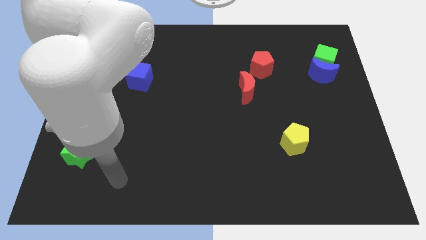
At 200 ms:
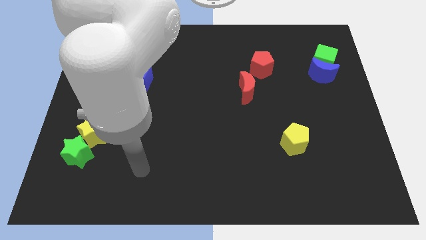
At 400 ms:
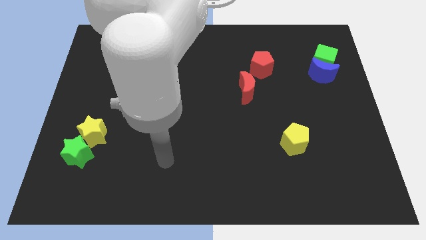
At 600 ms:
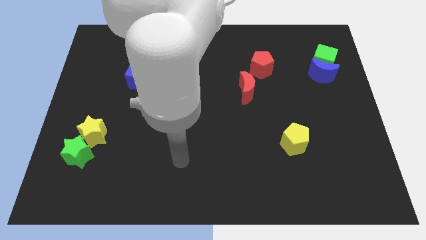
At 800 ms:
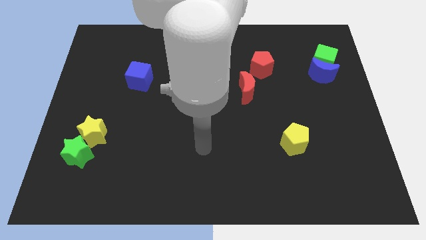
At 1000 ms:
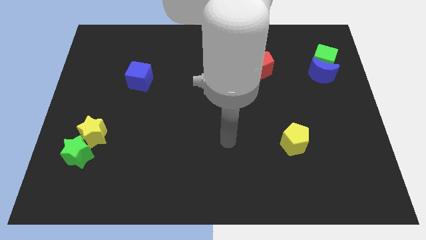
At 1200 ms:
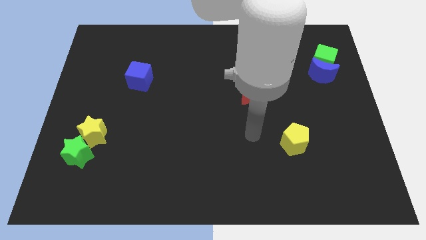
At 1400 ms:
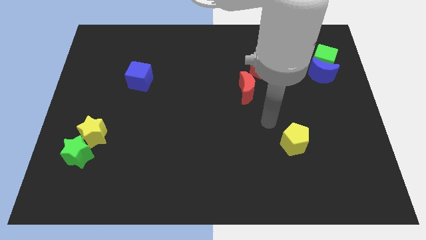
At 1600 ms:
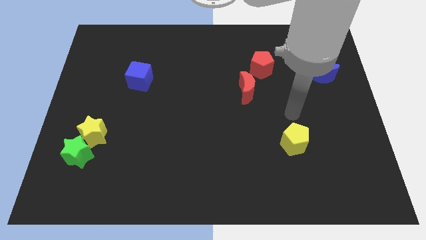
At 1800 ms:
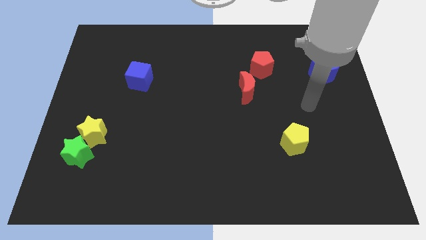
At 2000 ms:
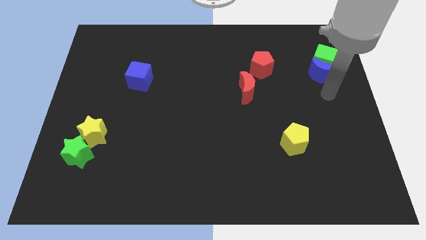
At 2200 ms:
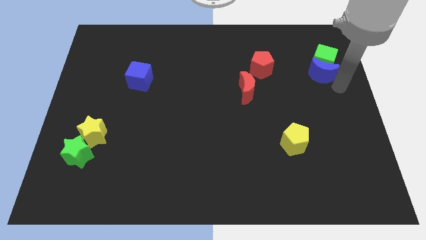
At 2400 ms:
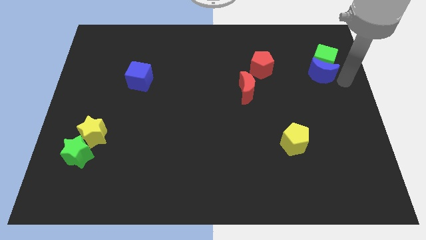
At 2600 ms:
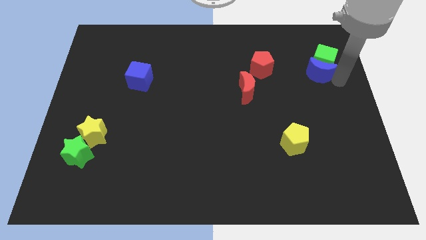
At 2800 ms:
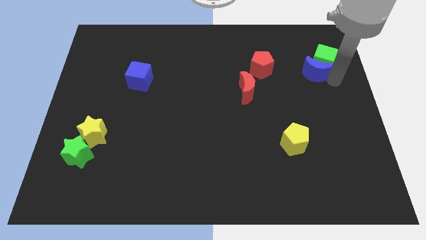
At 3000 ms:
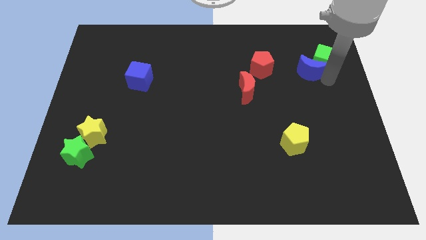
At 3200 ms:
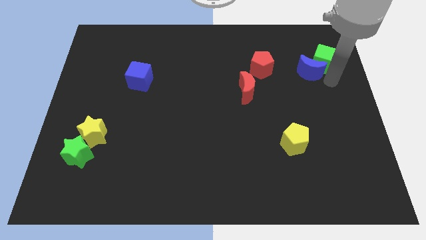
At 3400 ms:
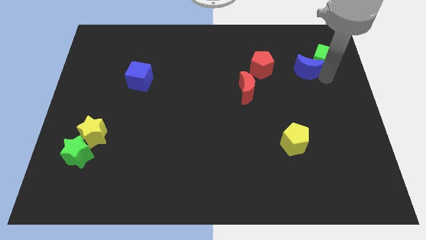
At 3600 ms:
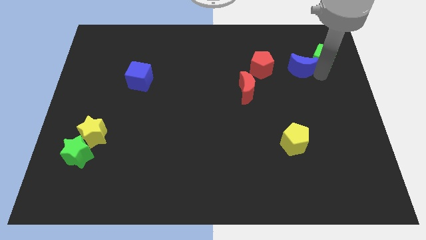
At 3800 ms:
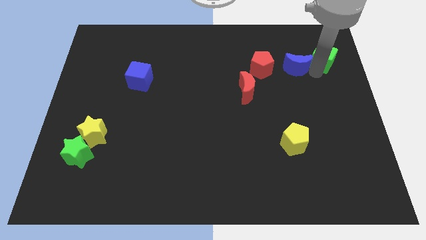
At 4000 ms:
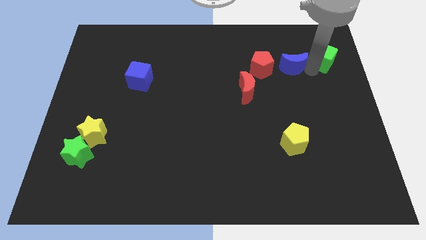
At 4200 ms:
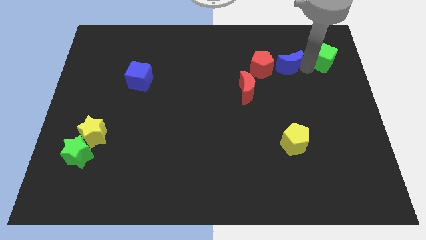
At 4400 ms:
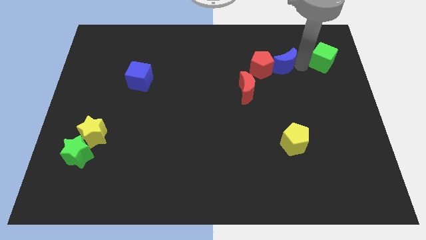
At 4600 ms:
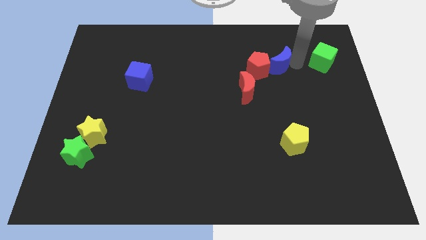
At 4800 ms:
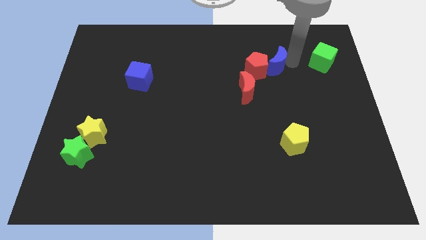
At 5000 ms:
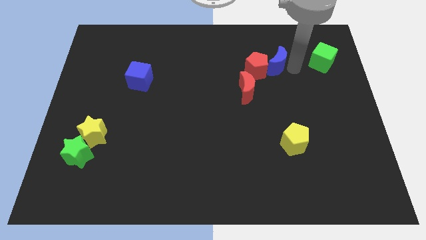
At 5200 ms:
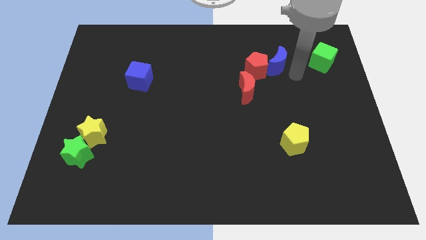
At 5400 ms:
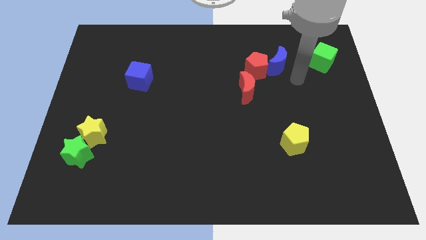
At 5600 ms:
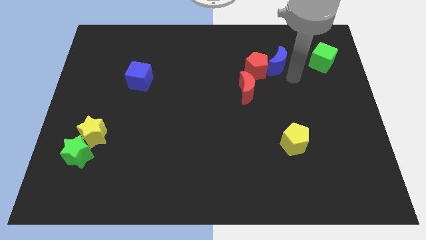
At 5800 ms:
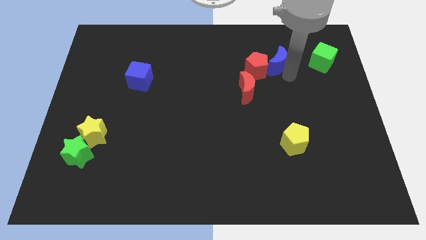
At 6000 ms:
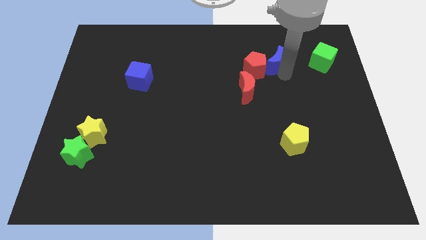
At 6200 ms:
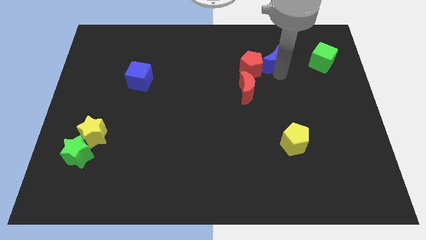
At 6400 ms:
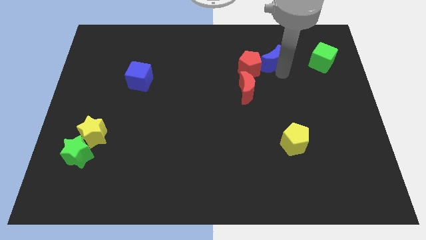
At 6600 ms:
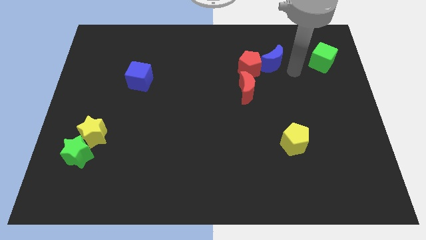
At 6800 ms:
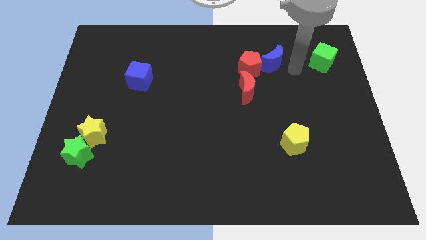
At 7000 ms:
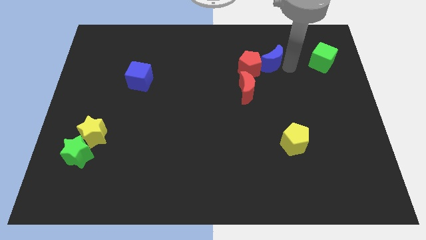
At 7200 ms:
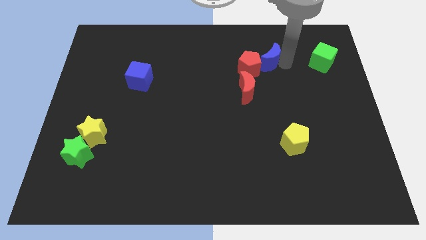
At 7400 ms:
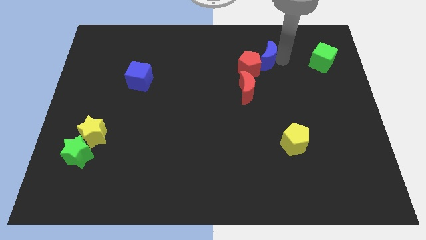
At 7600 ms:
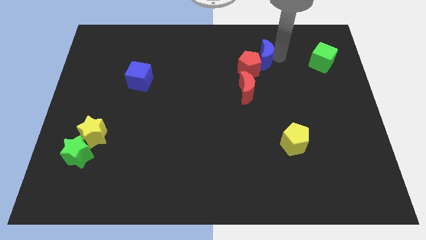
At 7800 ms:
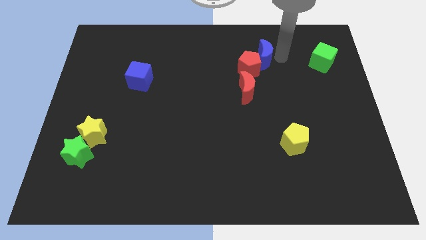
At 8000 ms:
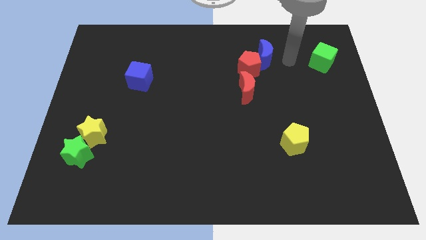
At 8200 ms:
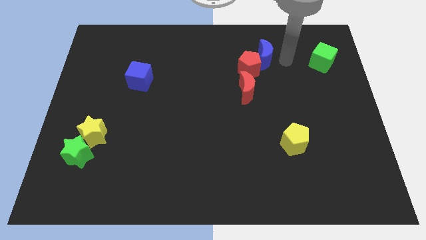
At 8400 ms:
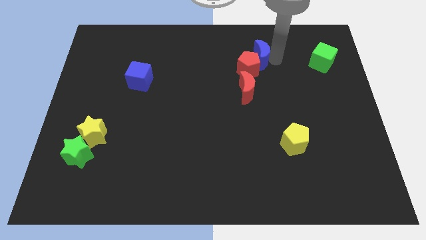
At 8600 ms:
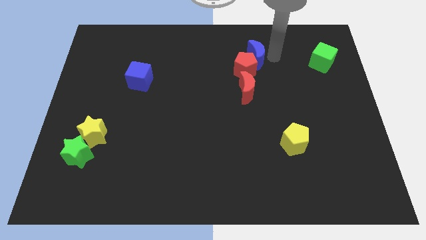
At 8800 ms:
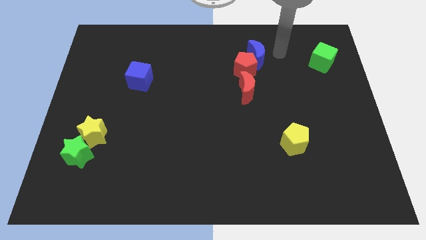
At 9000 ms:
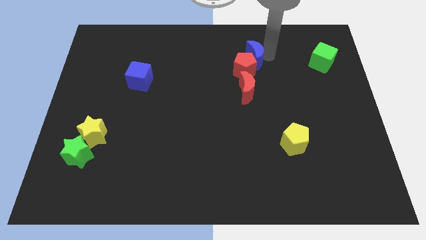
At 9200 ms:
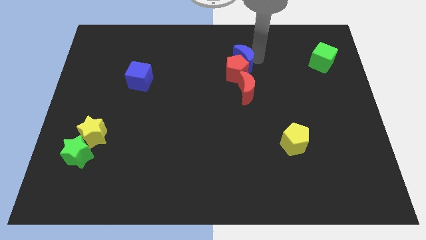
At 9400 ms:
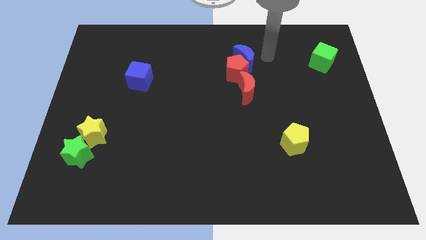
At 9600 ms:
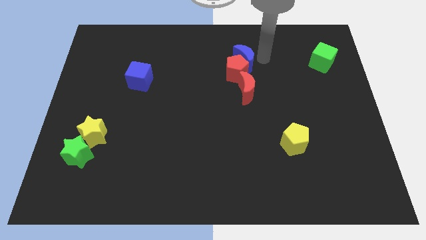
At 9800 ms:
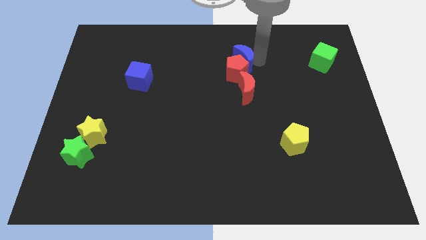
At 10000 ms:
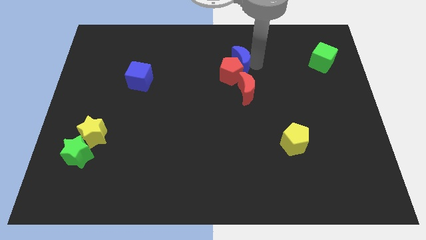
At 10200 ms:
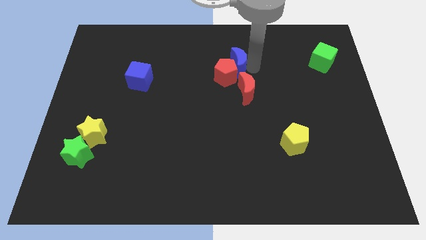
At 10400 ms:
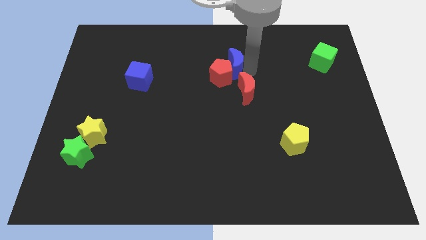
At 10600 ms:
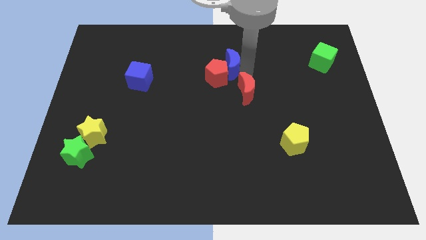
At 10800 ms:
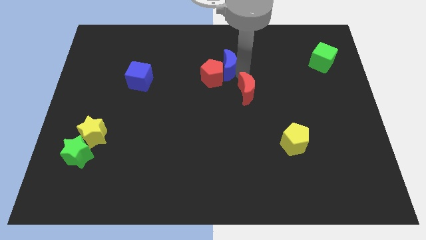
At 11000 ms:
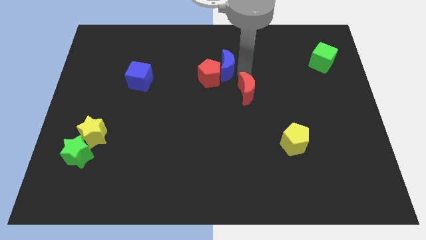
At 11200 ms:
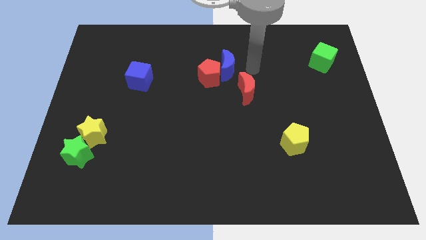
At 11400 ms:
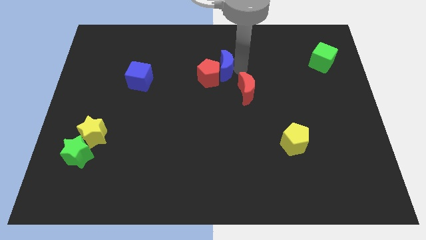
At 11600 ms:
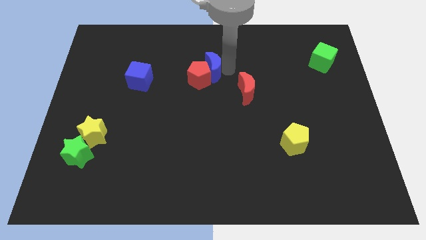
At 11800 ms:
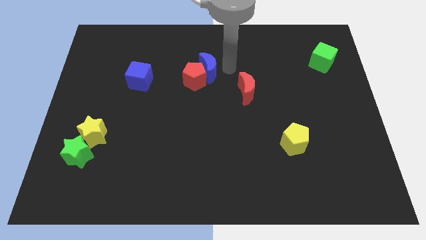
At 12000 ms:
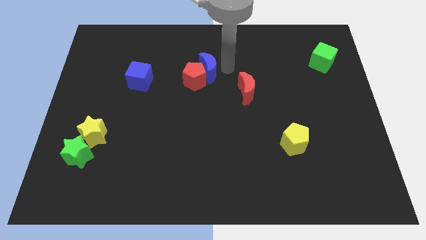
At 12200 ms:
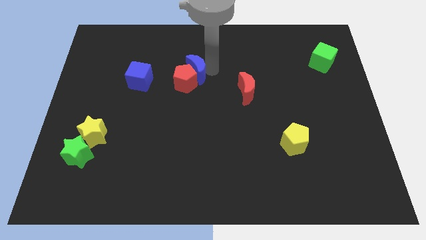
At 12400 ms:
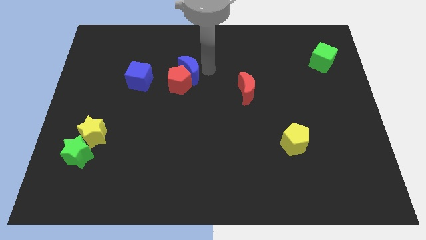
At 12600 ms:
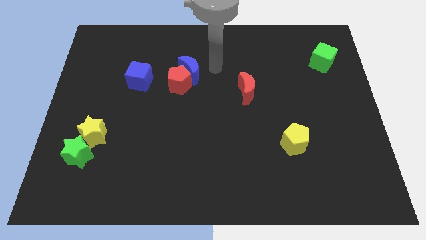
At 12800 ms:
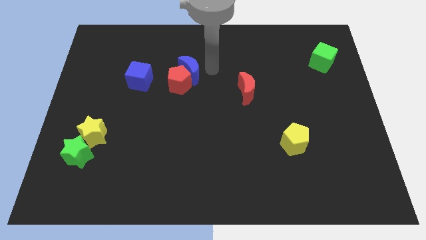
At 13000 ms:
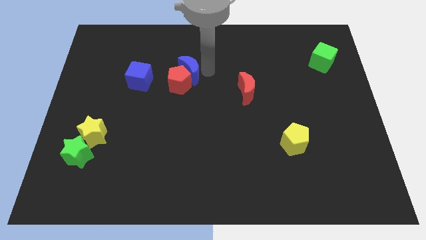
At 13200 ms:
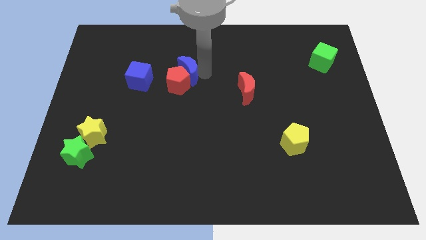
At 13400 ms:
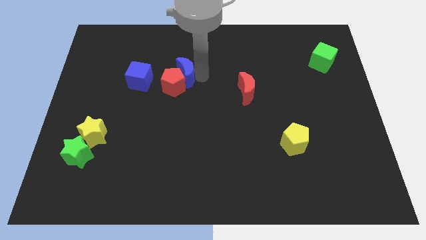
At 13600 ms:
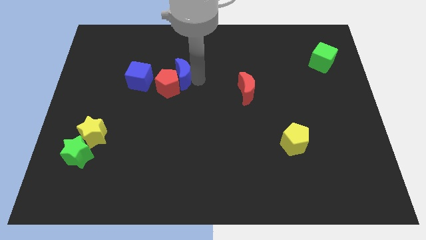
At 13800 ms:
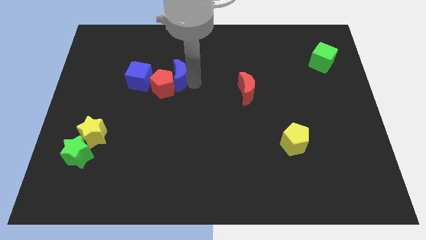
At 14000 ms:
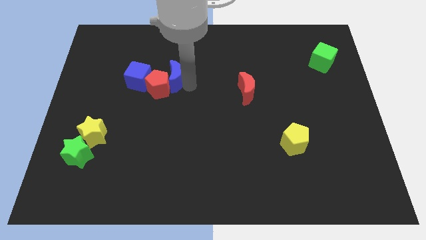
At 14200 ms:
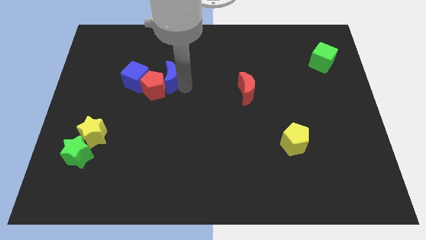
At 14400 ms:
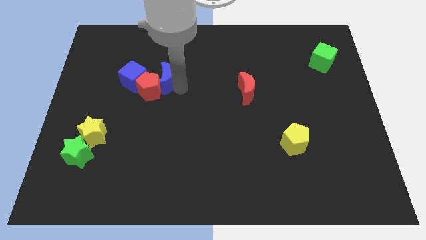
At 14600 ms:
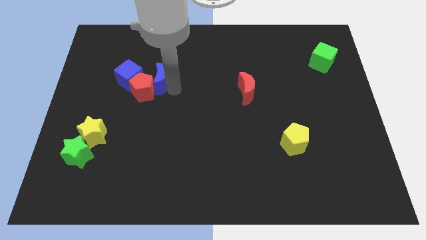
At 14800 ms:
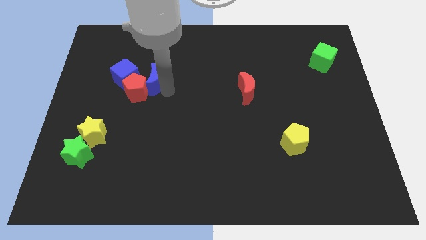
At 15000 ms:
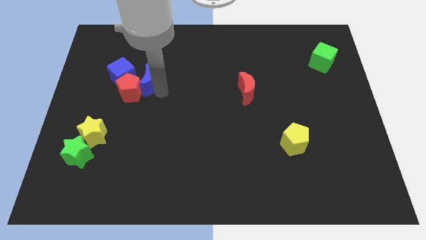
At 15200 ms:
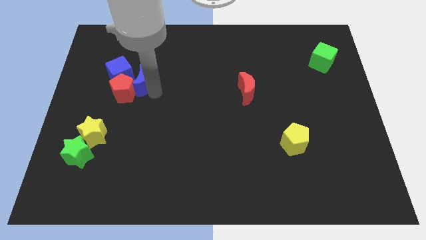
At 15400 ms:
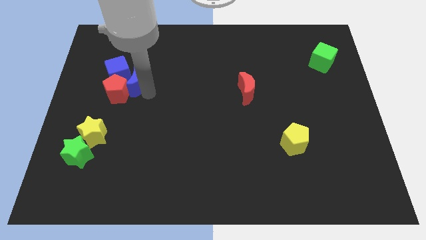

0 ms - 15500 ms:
push the blue moon close to the blue cube
